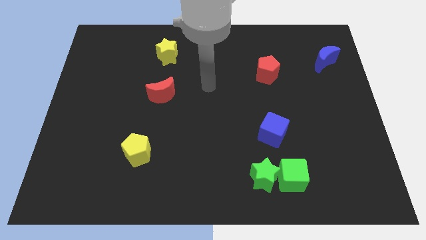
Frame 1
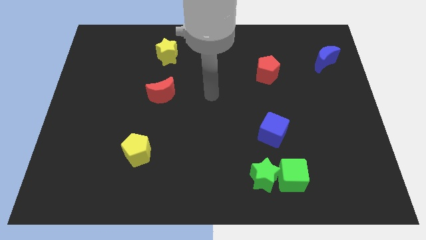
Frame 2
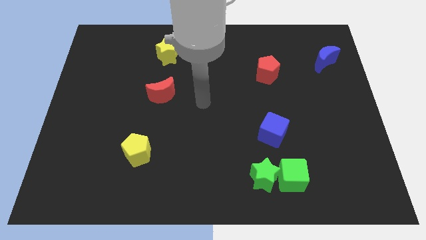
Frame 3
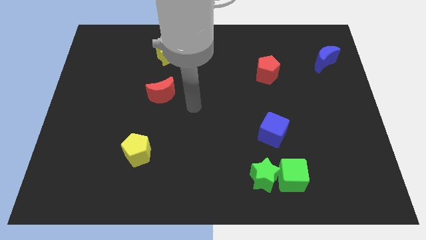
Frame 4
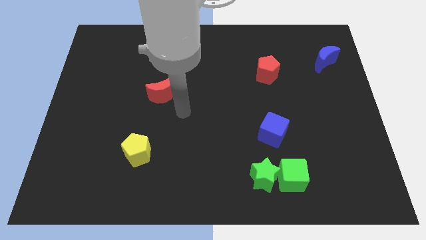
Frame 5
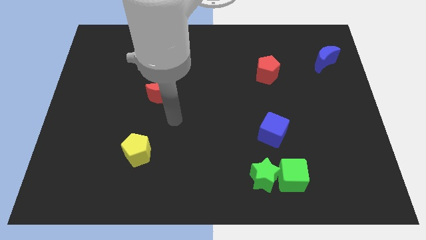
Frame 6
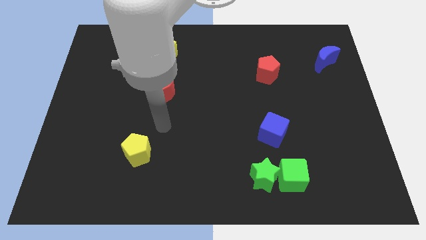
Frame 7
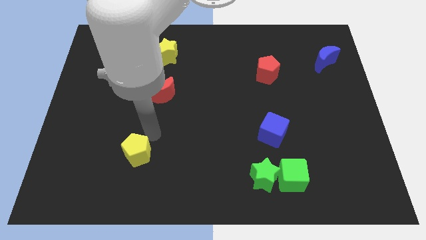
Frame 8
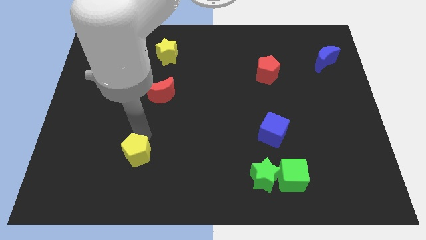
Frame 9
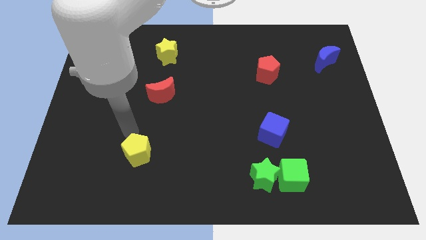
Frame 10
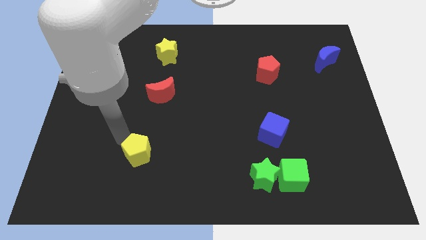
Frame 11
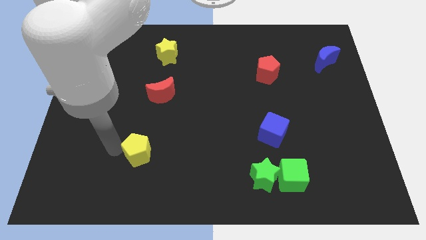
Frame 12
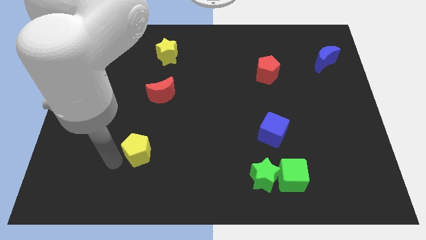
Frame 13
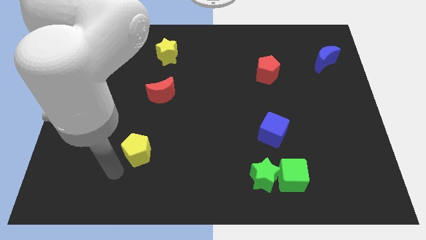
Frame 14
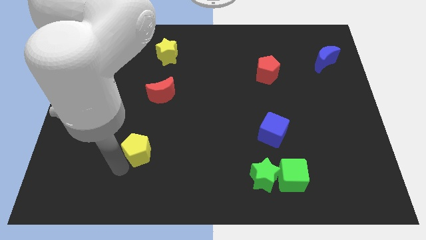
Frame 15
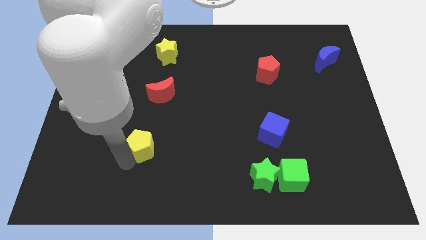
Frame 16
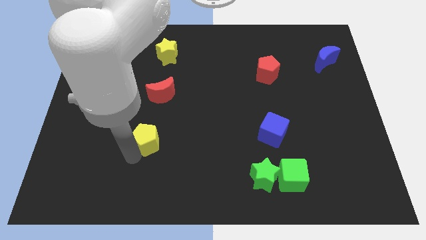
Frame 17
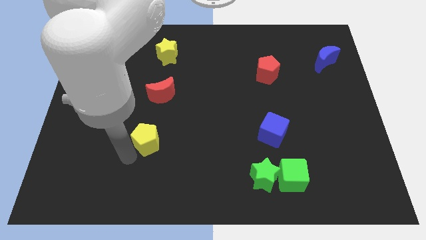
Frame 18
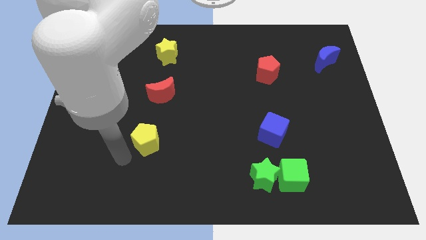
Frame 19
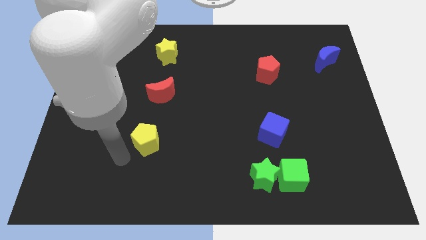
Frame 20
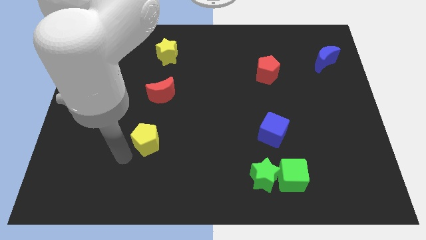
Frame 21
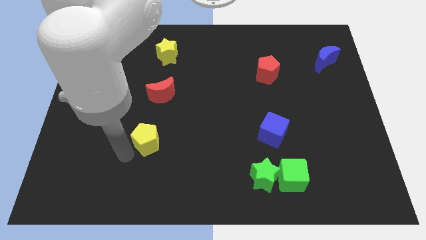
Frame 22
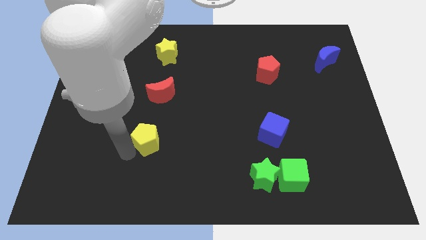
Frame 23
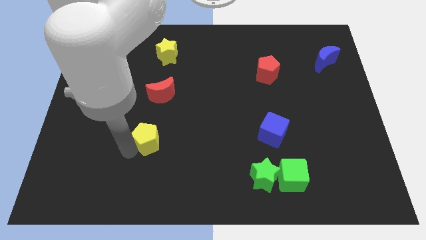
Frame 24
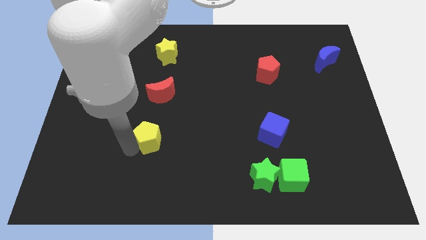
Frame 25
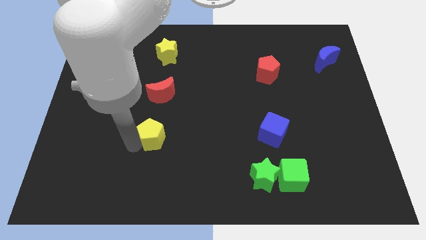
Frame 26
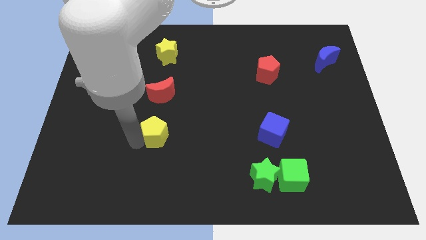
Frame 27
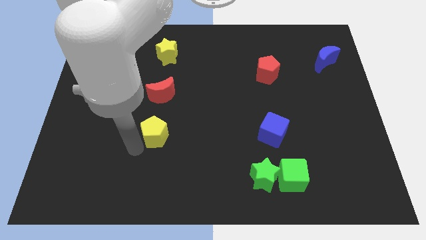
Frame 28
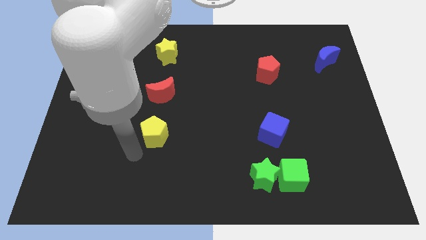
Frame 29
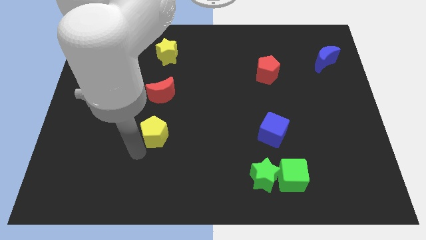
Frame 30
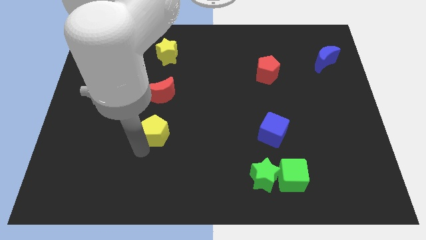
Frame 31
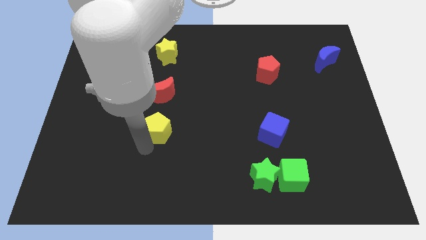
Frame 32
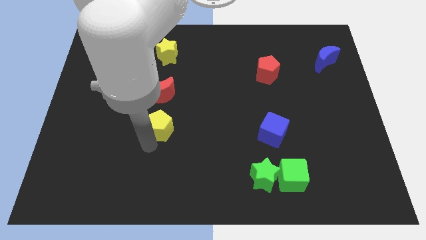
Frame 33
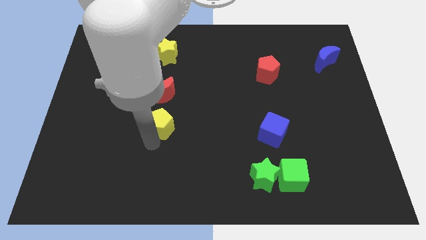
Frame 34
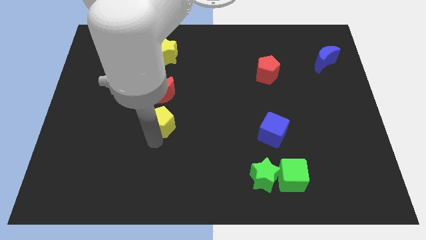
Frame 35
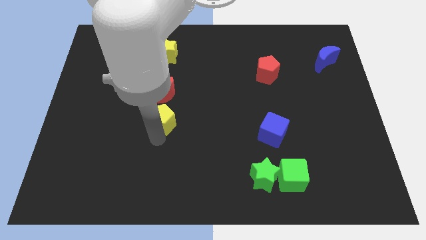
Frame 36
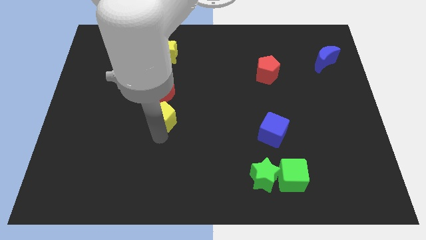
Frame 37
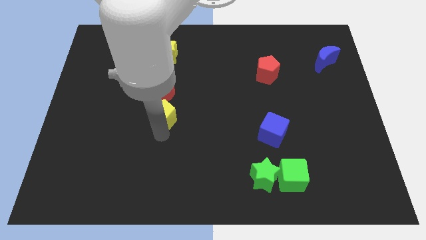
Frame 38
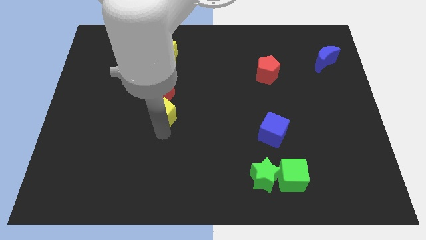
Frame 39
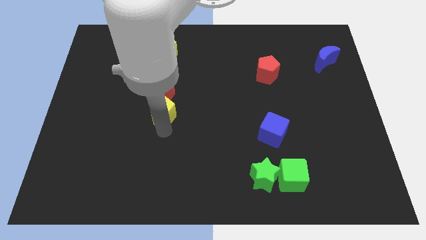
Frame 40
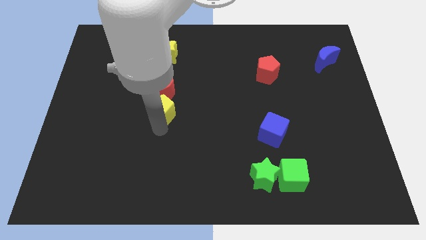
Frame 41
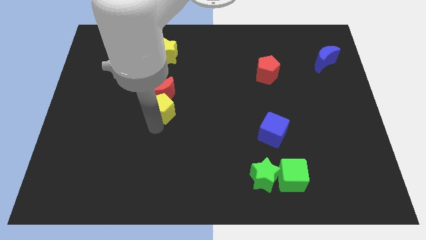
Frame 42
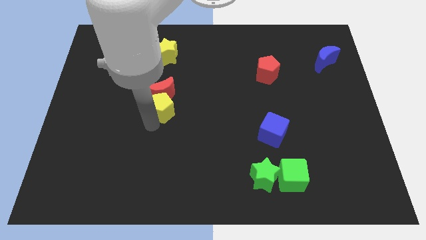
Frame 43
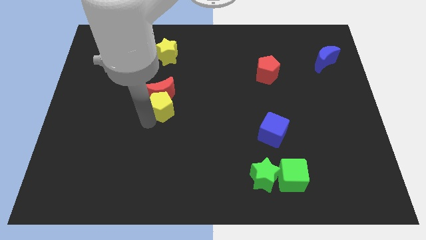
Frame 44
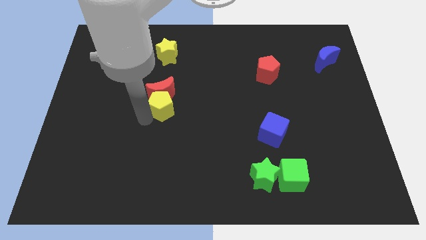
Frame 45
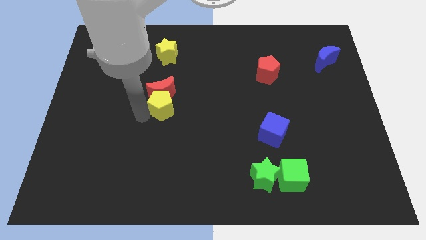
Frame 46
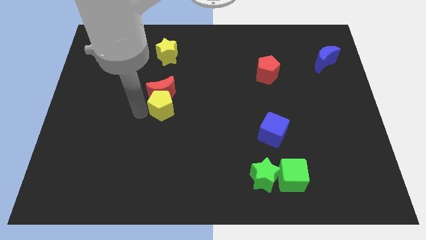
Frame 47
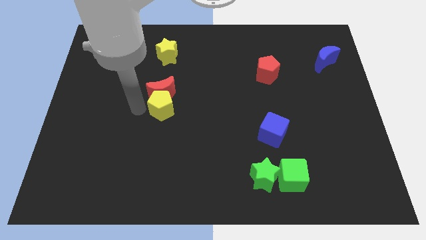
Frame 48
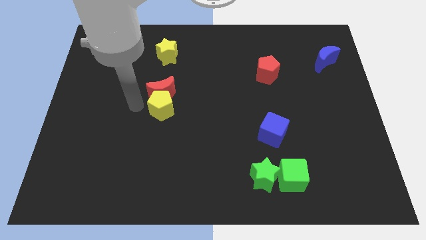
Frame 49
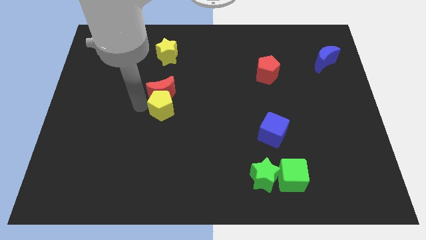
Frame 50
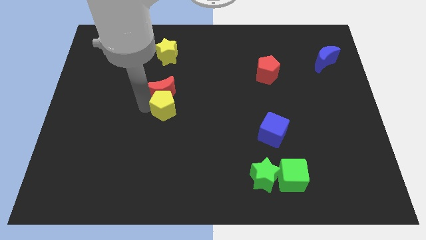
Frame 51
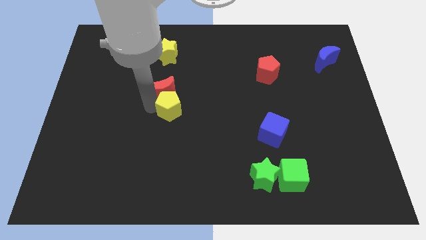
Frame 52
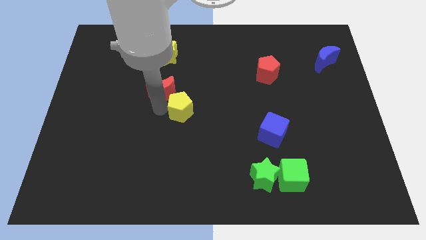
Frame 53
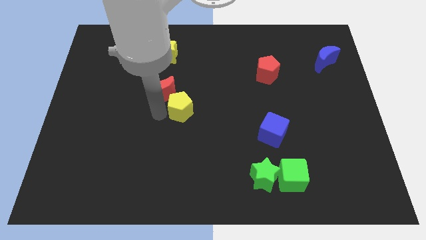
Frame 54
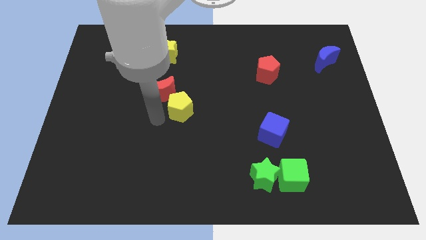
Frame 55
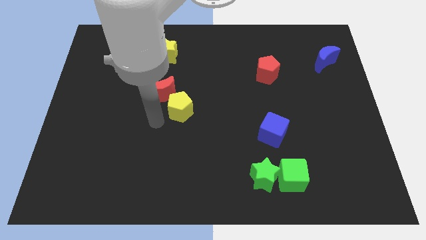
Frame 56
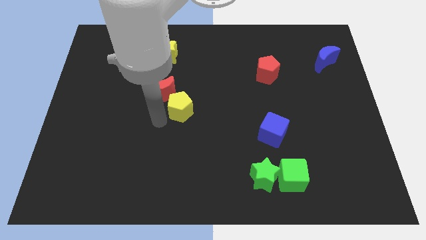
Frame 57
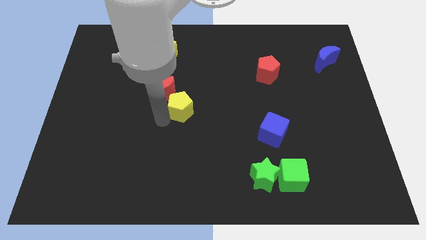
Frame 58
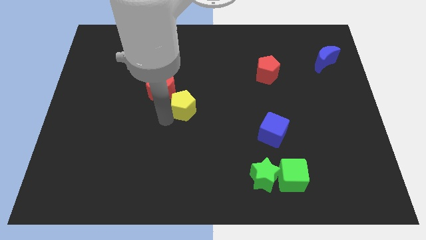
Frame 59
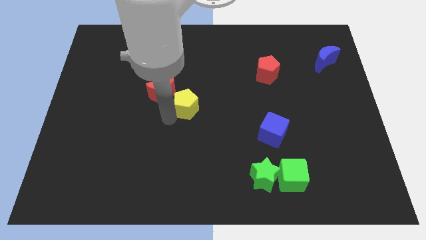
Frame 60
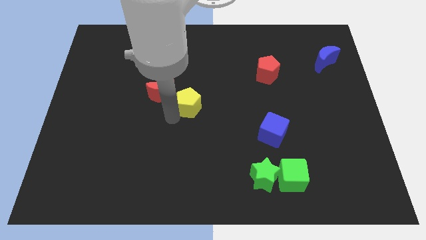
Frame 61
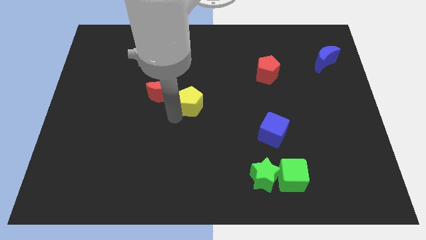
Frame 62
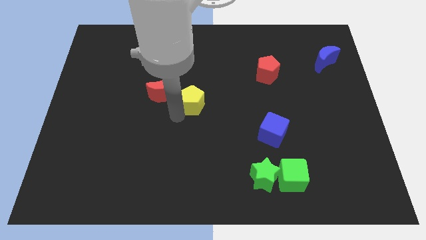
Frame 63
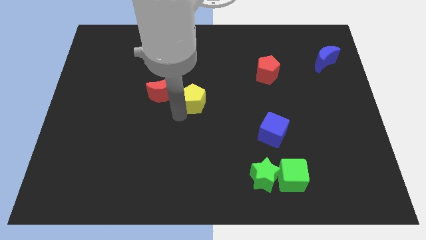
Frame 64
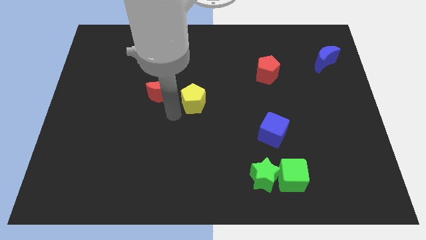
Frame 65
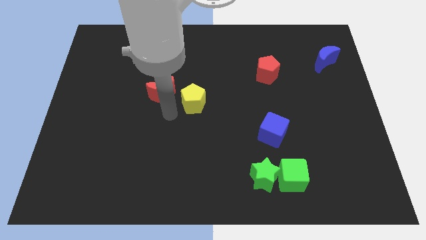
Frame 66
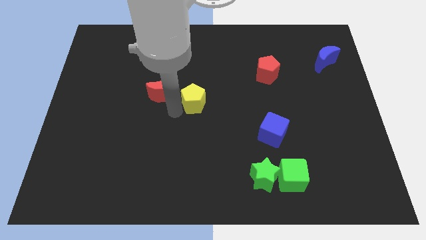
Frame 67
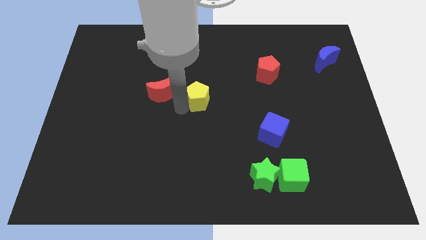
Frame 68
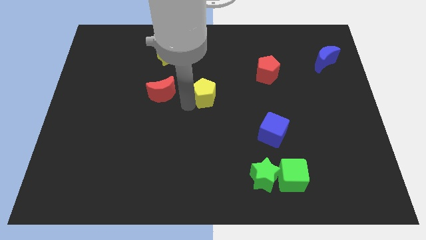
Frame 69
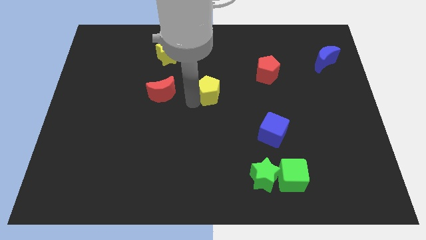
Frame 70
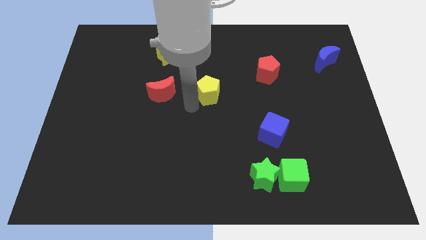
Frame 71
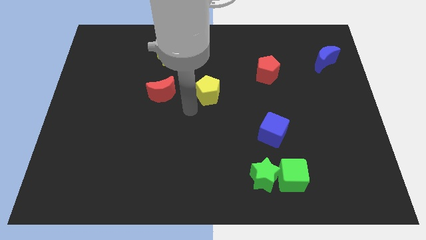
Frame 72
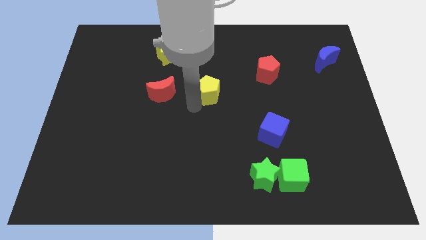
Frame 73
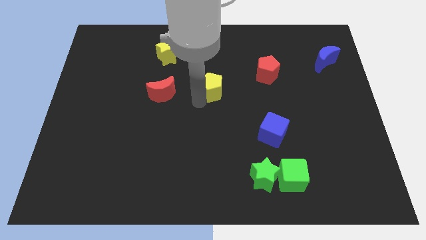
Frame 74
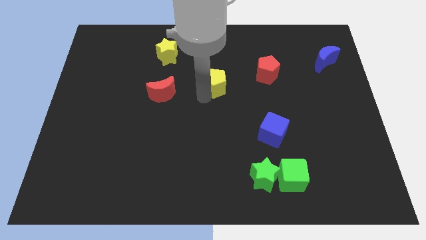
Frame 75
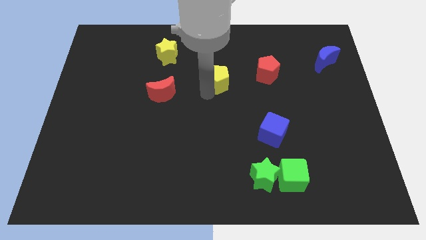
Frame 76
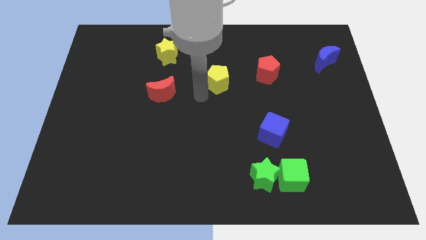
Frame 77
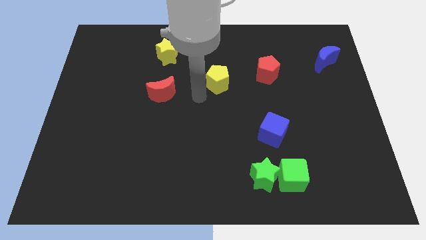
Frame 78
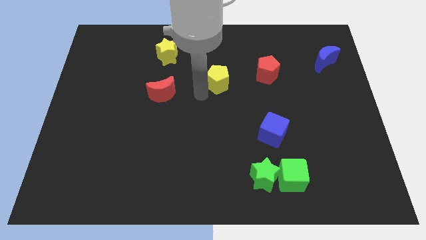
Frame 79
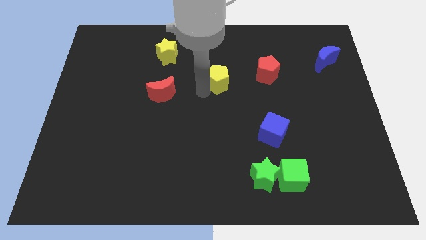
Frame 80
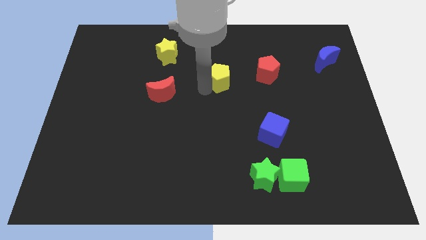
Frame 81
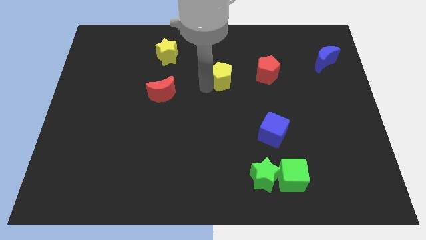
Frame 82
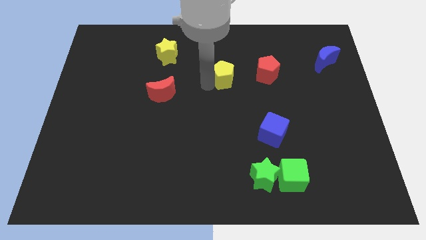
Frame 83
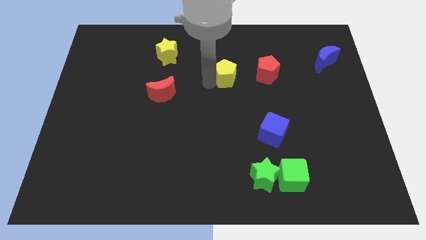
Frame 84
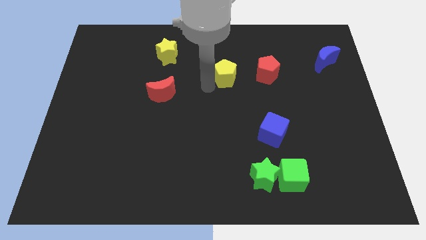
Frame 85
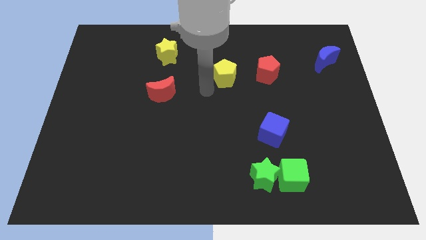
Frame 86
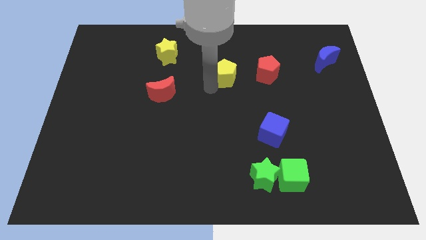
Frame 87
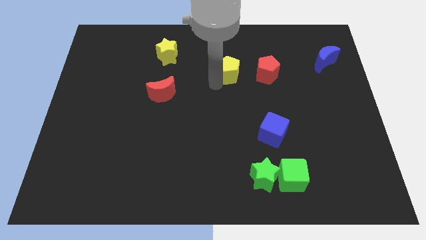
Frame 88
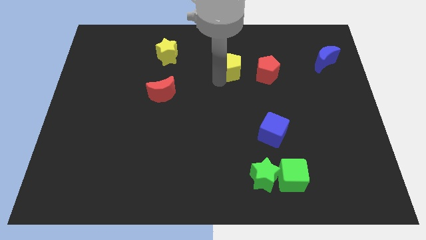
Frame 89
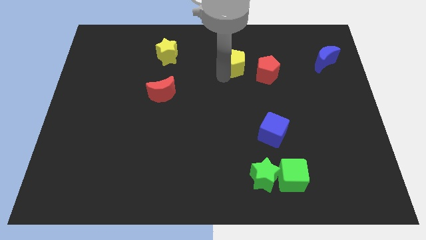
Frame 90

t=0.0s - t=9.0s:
push the yellow pentagon diagonally up and to the left of the red pentagon
